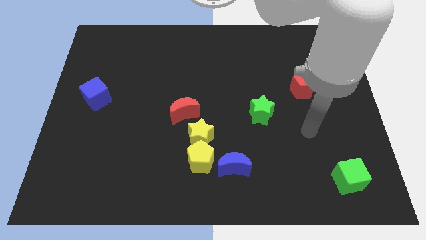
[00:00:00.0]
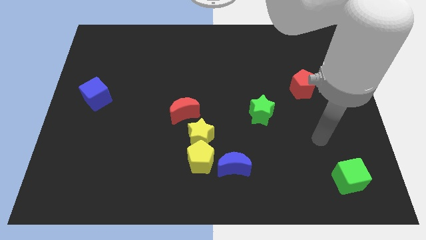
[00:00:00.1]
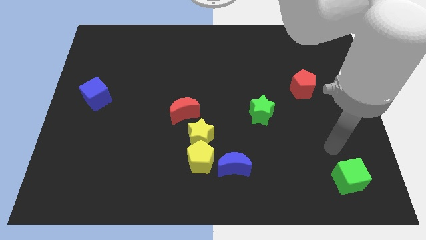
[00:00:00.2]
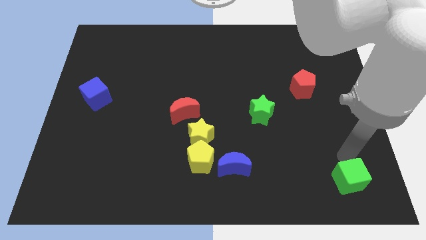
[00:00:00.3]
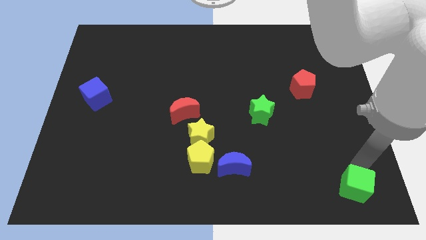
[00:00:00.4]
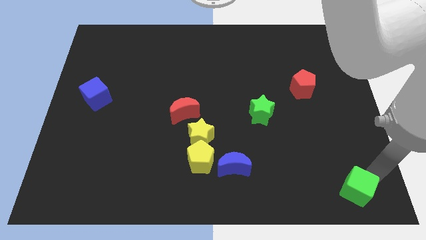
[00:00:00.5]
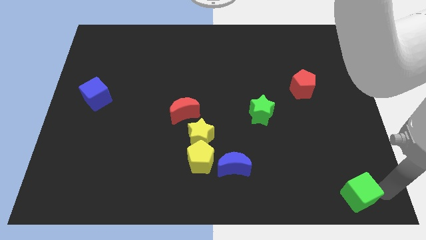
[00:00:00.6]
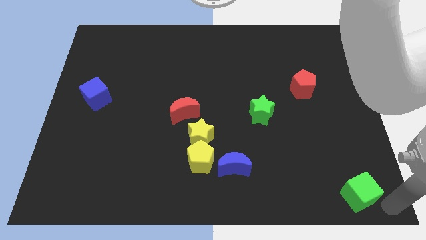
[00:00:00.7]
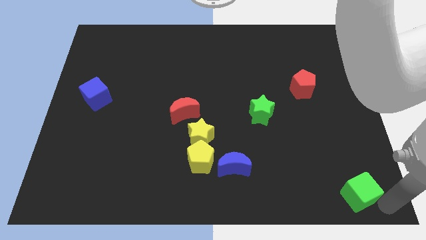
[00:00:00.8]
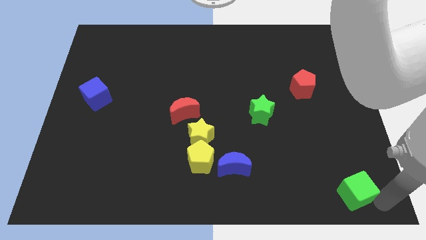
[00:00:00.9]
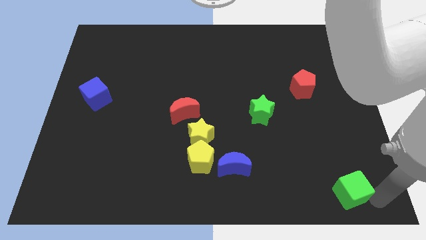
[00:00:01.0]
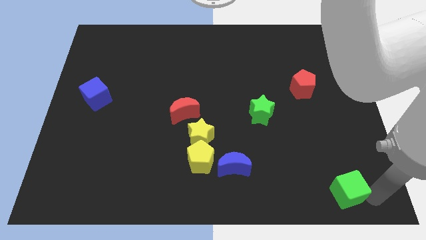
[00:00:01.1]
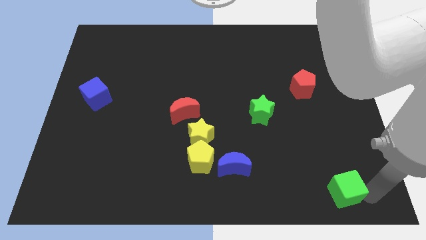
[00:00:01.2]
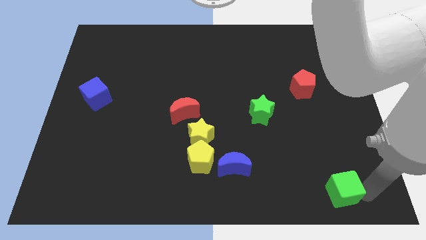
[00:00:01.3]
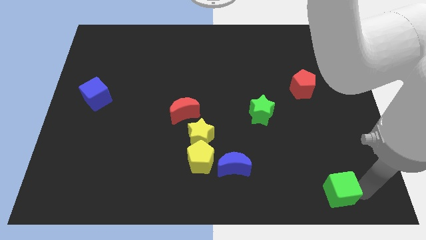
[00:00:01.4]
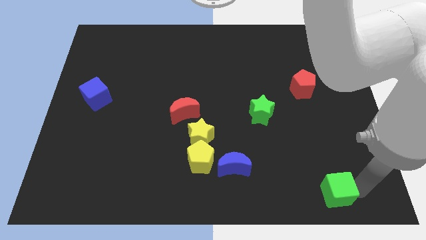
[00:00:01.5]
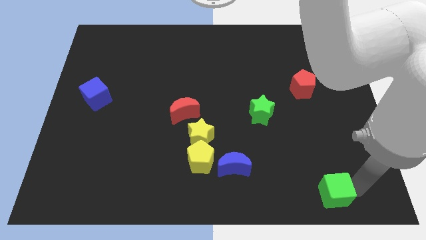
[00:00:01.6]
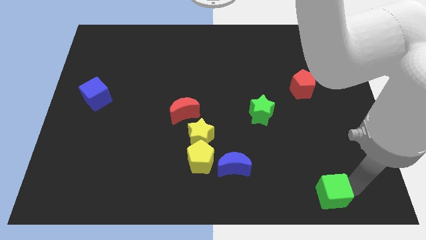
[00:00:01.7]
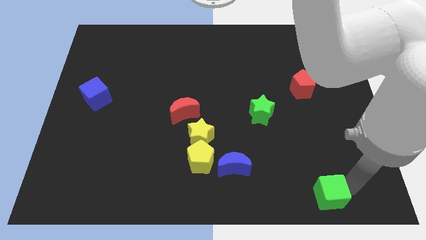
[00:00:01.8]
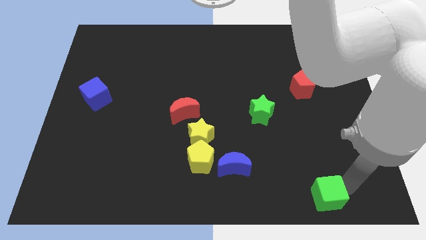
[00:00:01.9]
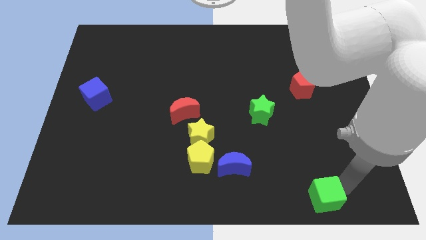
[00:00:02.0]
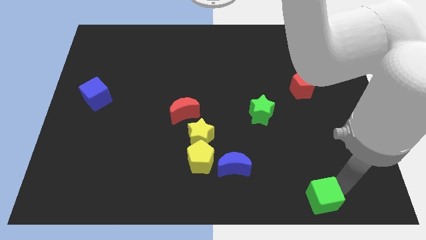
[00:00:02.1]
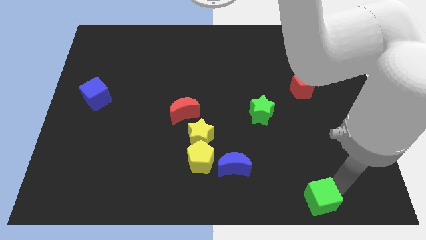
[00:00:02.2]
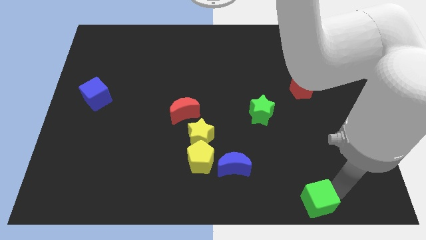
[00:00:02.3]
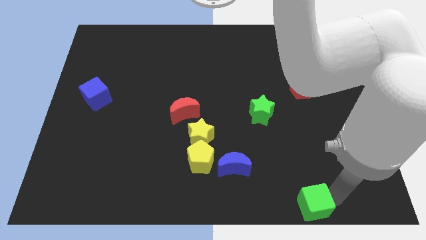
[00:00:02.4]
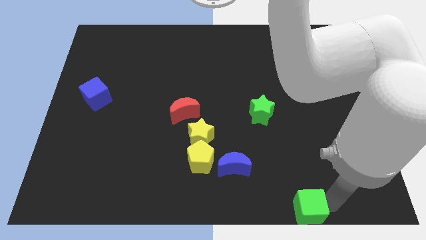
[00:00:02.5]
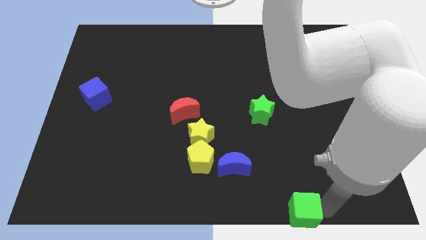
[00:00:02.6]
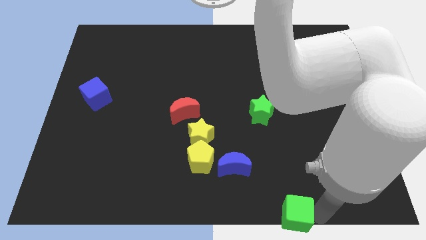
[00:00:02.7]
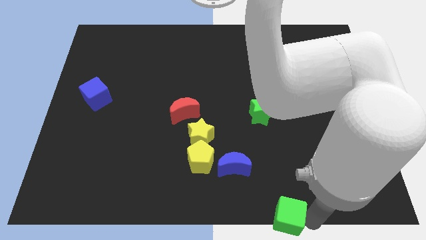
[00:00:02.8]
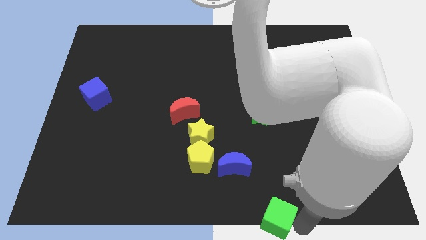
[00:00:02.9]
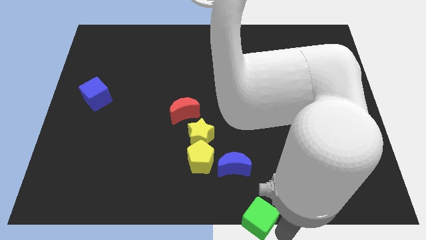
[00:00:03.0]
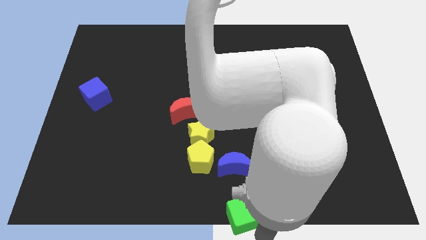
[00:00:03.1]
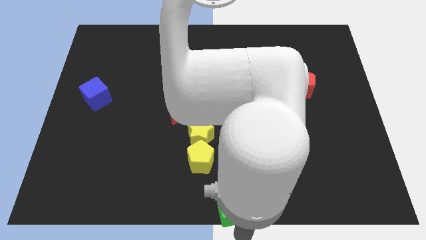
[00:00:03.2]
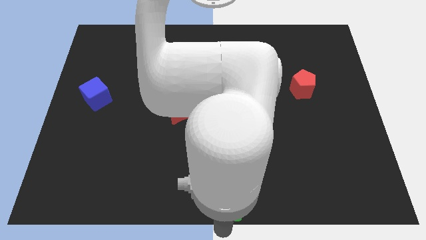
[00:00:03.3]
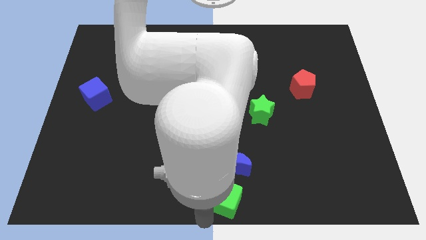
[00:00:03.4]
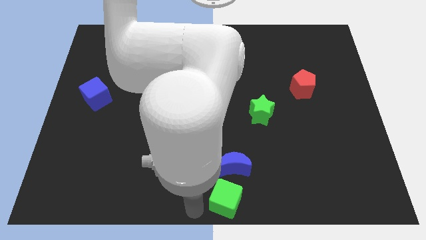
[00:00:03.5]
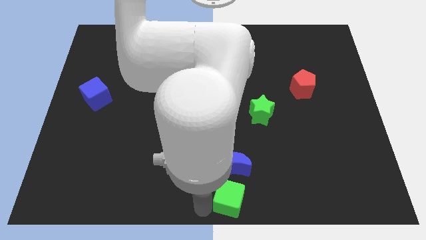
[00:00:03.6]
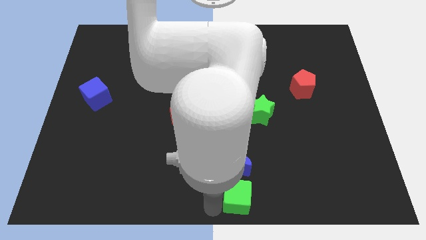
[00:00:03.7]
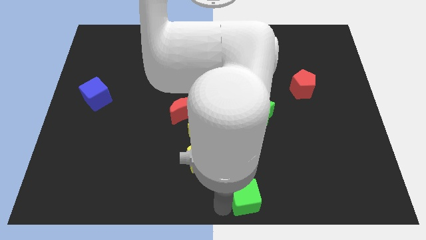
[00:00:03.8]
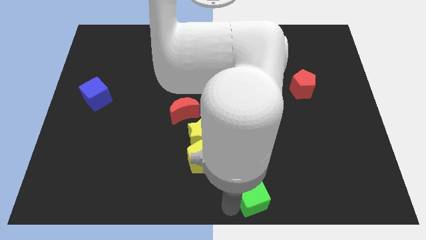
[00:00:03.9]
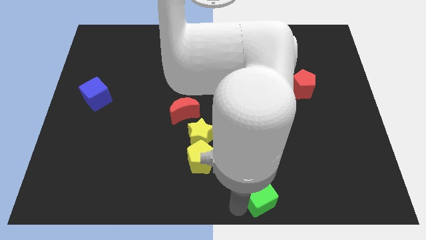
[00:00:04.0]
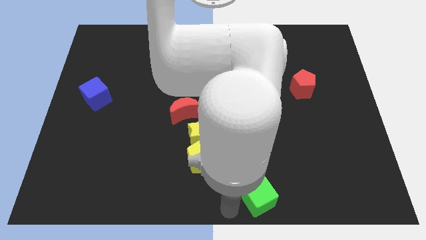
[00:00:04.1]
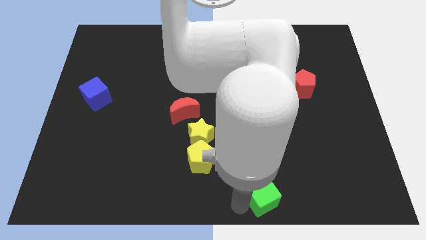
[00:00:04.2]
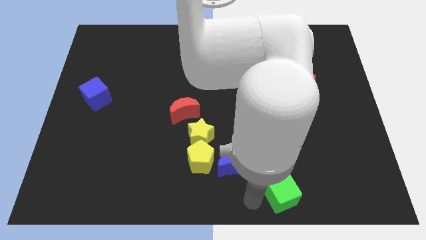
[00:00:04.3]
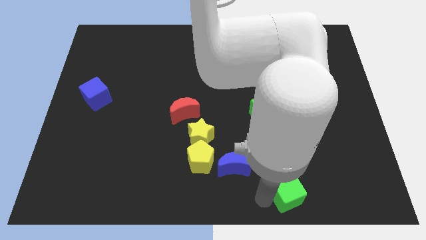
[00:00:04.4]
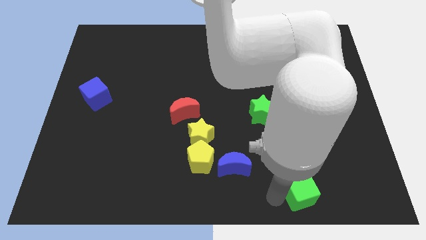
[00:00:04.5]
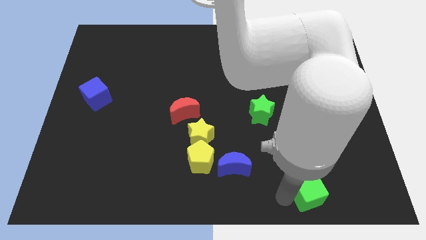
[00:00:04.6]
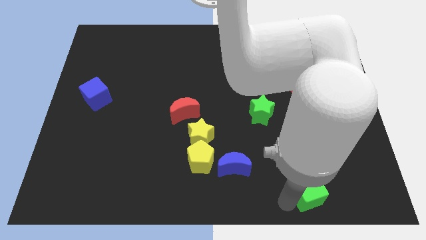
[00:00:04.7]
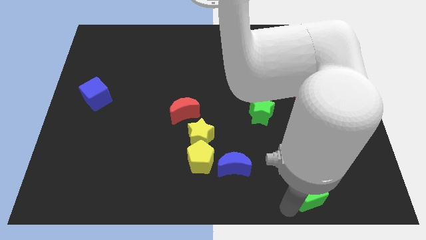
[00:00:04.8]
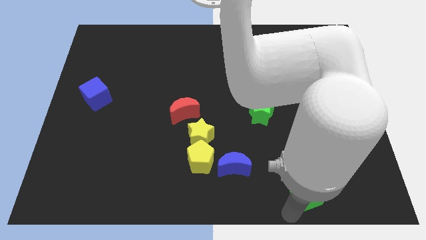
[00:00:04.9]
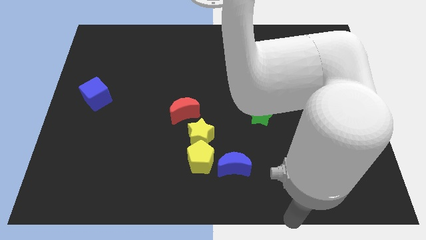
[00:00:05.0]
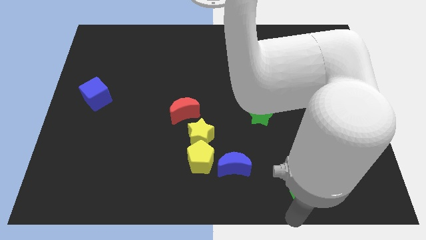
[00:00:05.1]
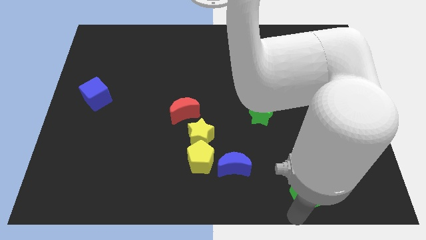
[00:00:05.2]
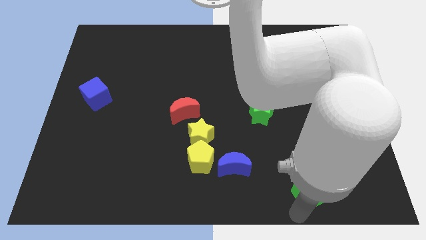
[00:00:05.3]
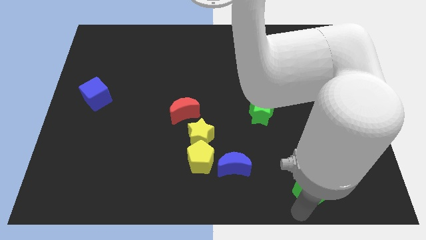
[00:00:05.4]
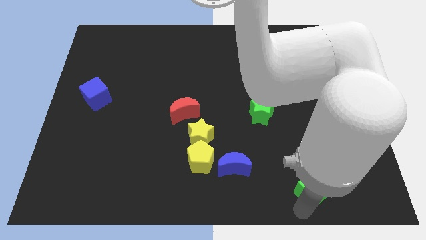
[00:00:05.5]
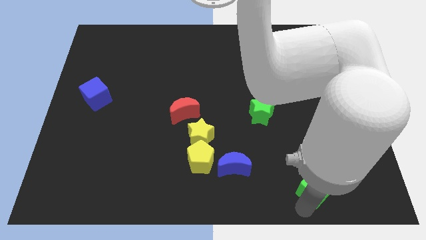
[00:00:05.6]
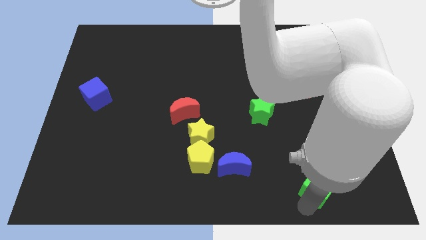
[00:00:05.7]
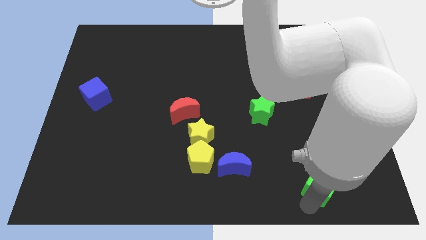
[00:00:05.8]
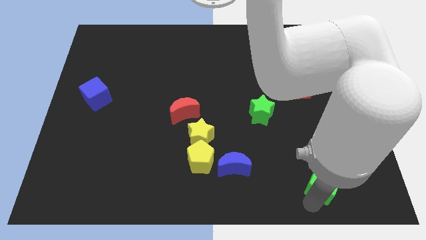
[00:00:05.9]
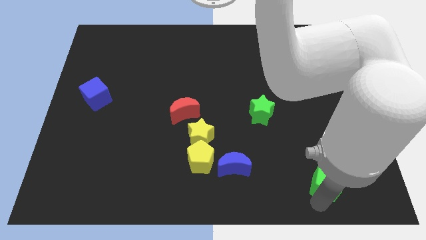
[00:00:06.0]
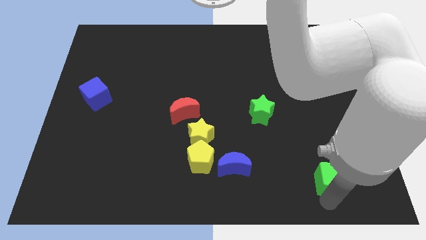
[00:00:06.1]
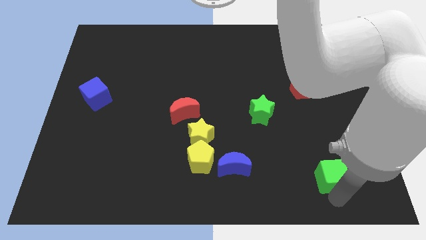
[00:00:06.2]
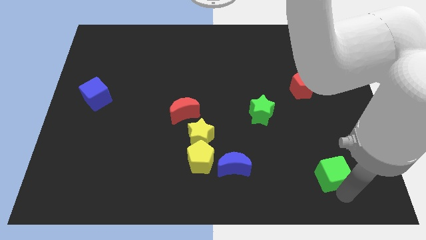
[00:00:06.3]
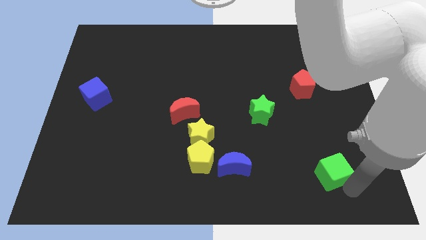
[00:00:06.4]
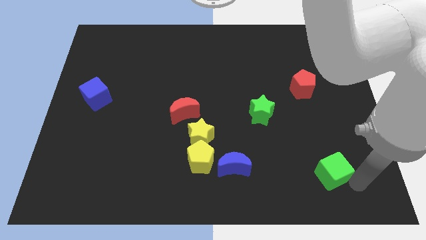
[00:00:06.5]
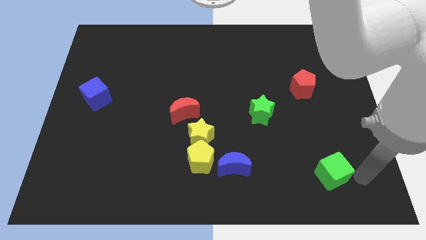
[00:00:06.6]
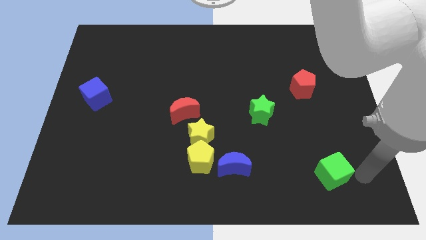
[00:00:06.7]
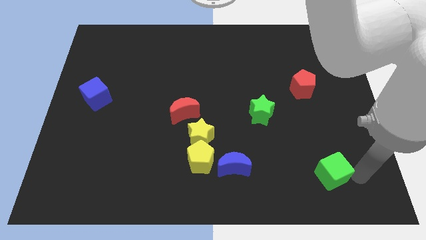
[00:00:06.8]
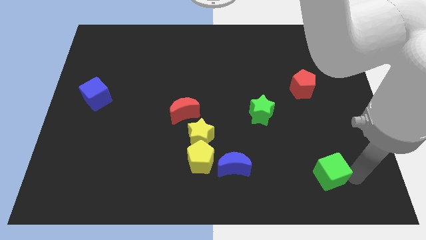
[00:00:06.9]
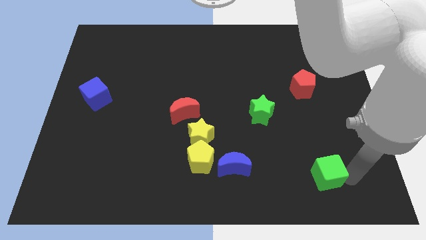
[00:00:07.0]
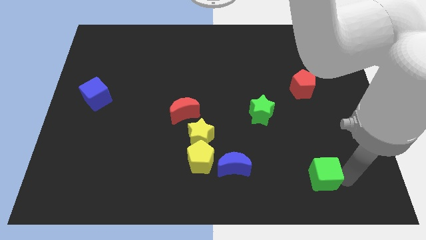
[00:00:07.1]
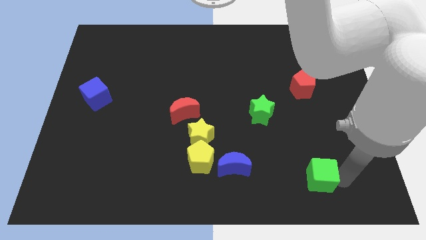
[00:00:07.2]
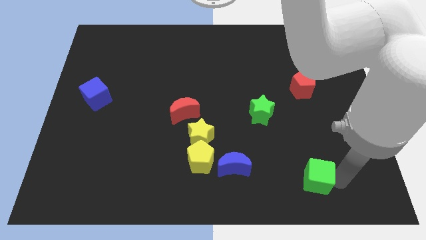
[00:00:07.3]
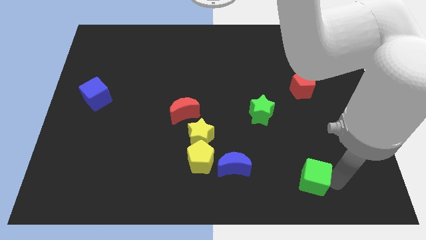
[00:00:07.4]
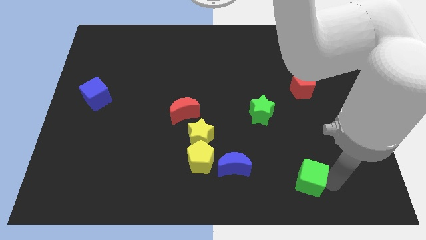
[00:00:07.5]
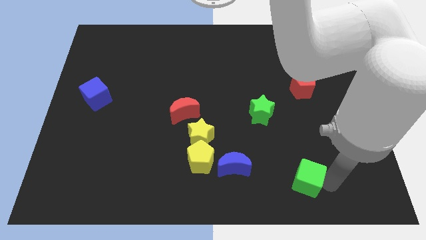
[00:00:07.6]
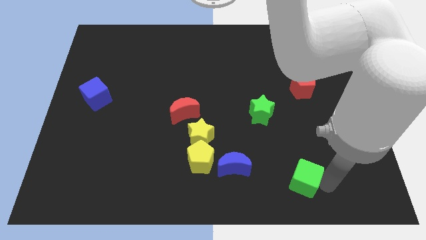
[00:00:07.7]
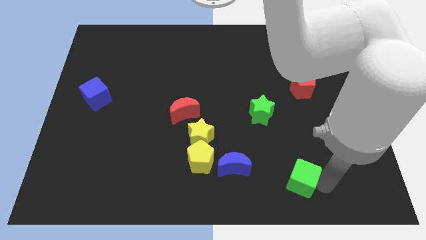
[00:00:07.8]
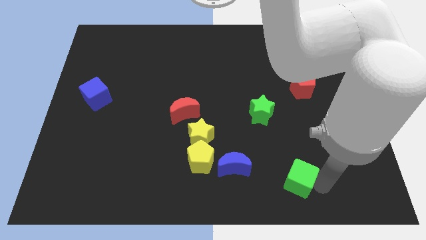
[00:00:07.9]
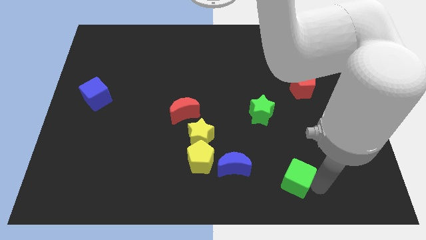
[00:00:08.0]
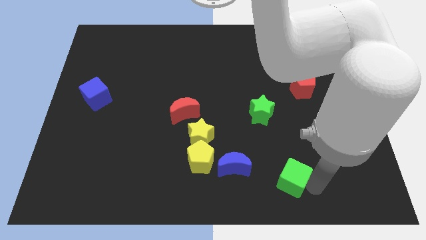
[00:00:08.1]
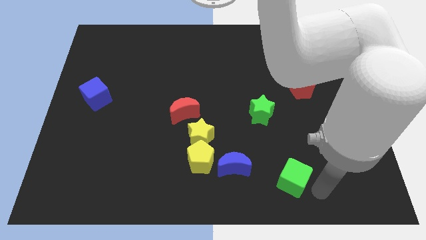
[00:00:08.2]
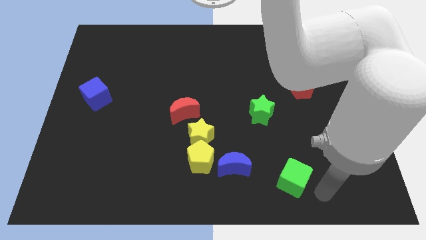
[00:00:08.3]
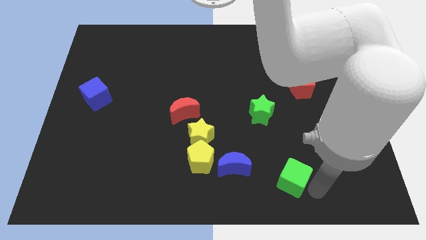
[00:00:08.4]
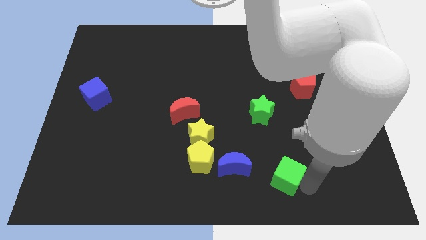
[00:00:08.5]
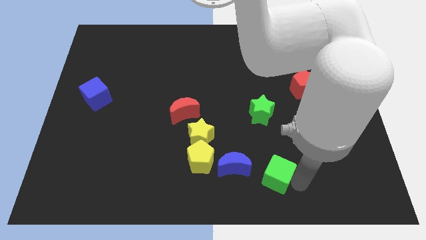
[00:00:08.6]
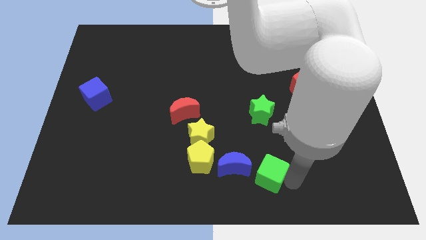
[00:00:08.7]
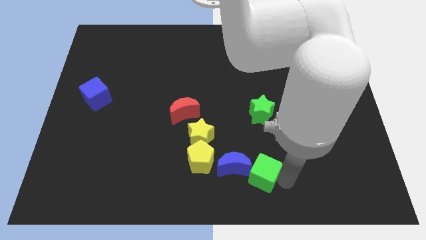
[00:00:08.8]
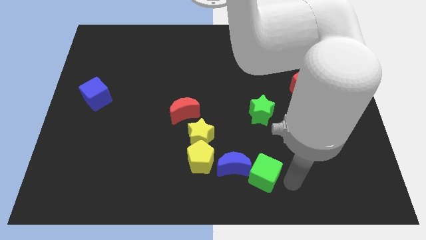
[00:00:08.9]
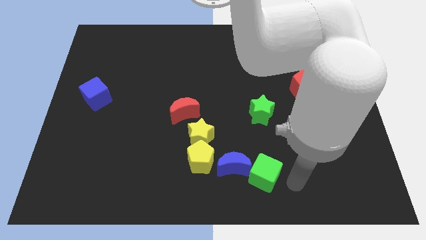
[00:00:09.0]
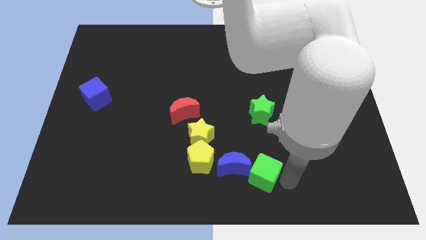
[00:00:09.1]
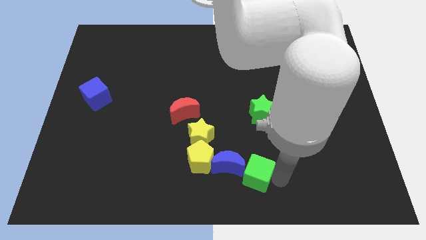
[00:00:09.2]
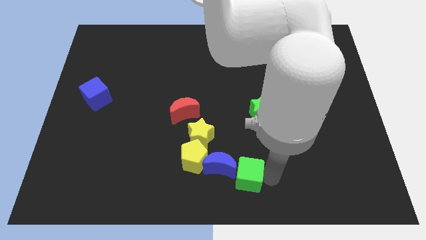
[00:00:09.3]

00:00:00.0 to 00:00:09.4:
slide the green cube towards the blue moon
